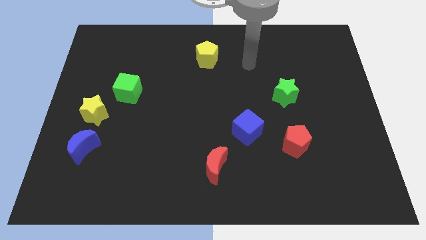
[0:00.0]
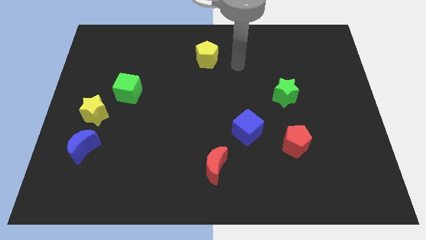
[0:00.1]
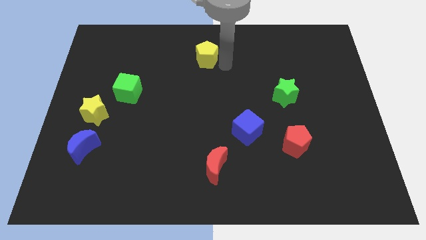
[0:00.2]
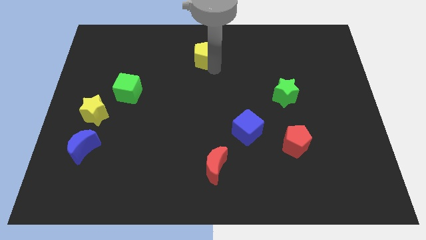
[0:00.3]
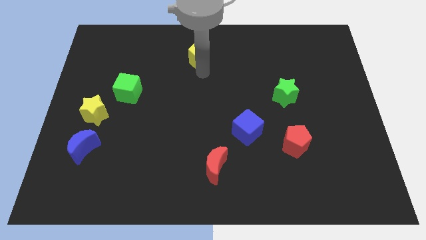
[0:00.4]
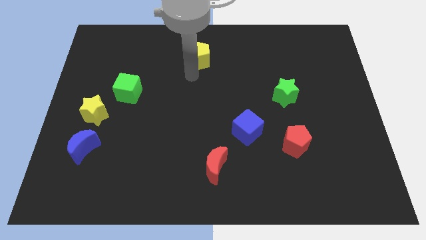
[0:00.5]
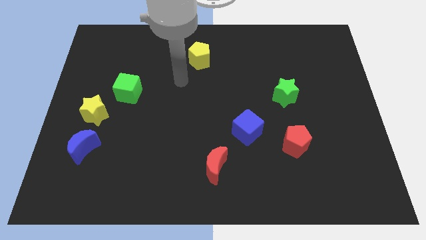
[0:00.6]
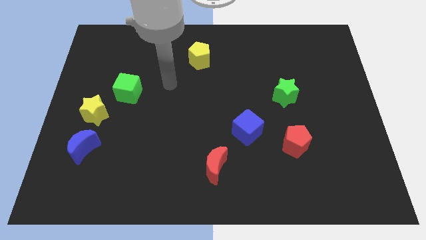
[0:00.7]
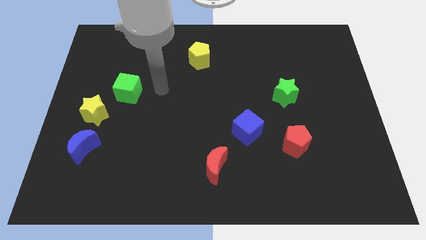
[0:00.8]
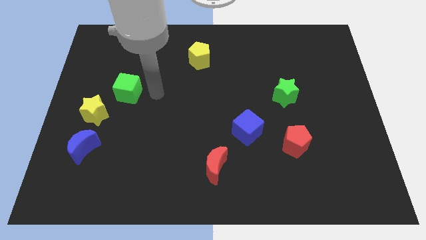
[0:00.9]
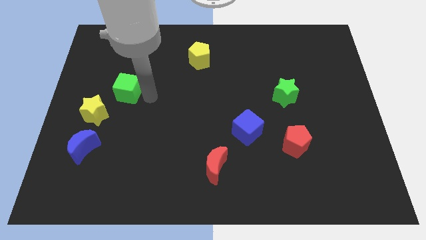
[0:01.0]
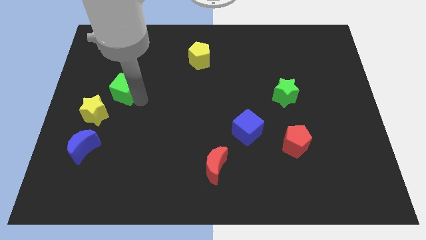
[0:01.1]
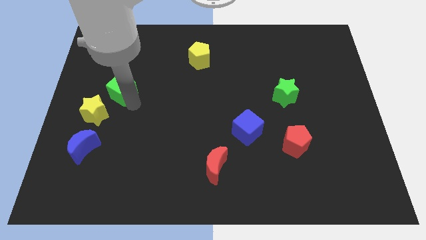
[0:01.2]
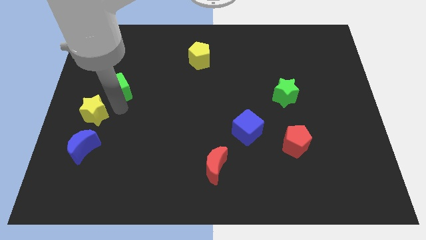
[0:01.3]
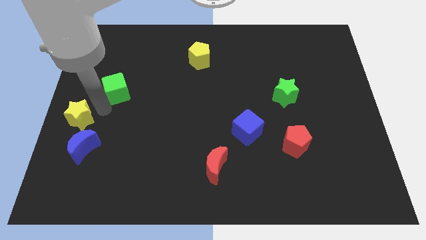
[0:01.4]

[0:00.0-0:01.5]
pull the green cube apart from the yellow star

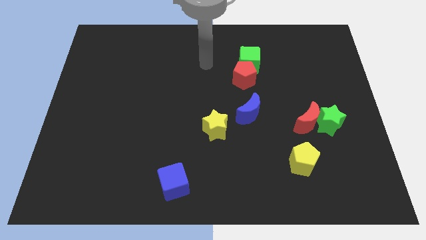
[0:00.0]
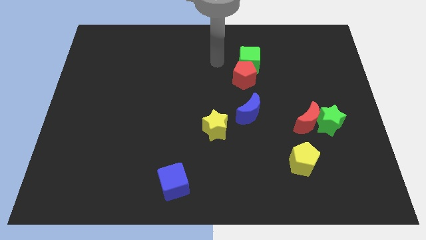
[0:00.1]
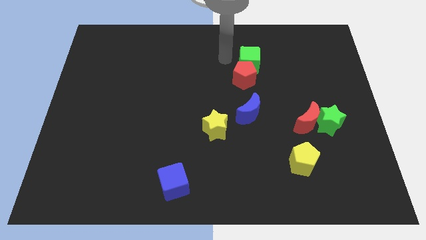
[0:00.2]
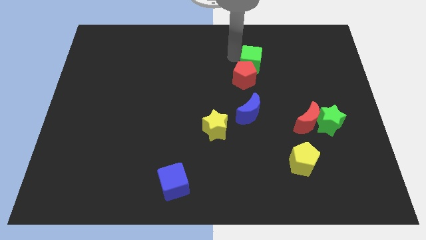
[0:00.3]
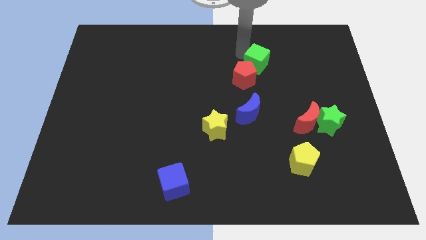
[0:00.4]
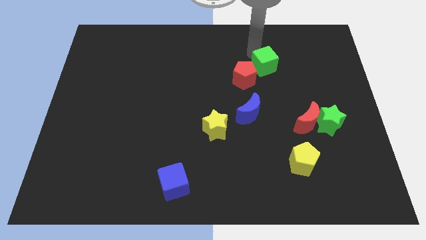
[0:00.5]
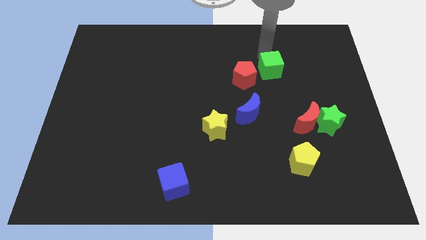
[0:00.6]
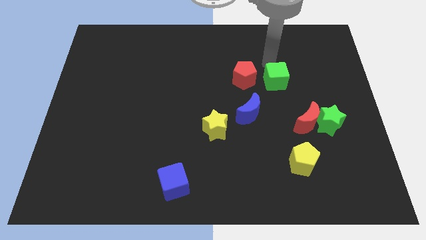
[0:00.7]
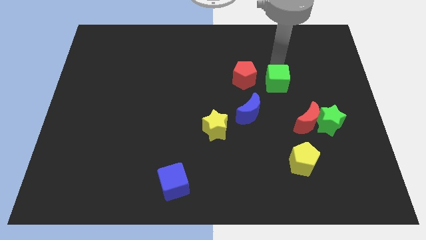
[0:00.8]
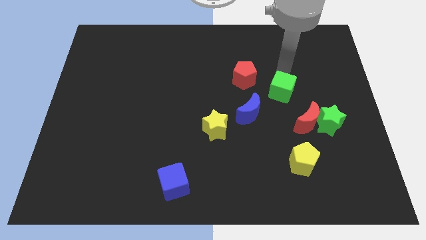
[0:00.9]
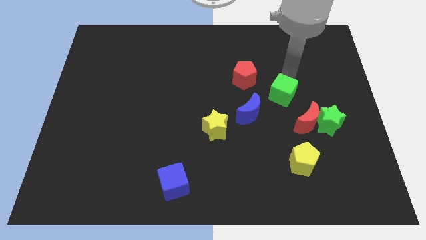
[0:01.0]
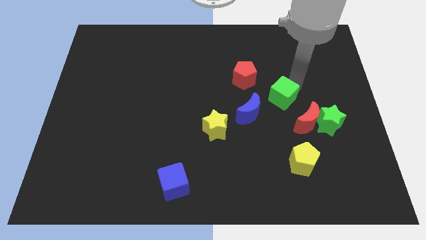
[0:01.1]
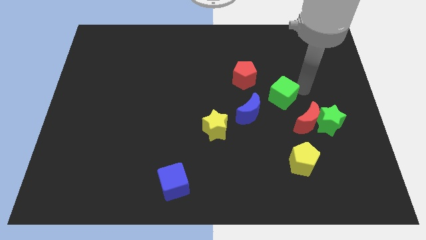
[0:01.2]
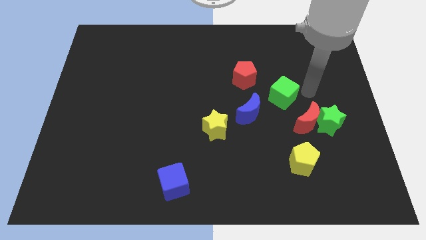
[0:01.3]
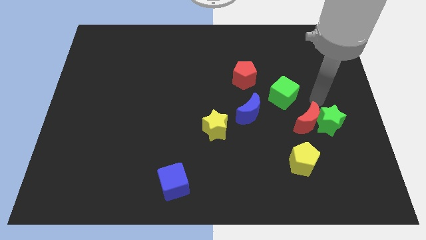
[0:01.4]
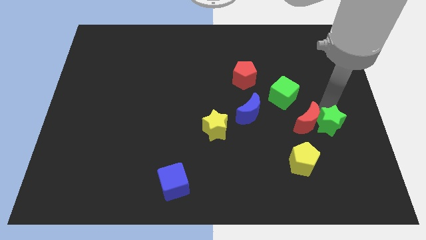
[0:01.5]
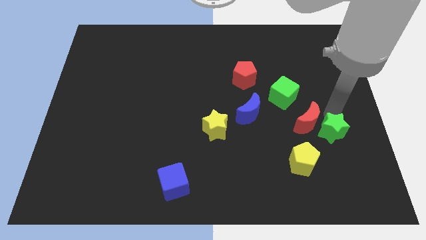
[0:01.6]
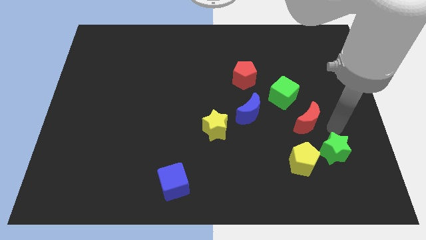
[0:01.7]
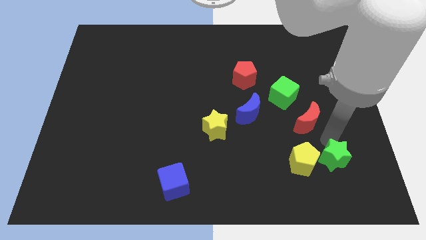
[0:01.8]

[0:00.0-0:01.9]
separate the red moon from the green star

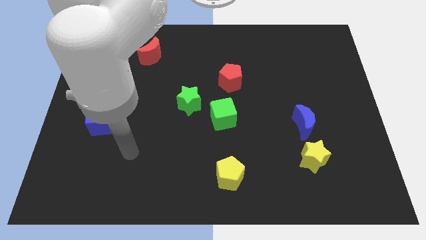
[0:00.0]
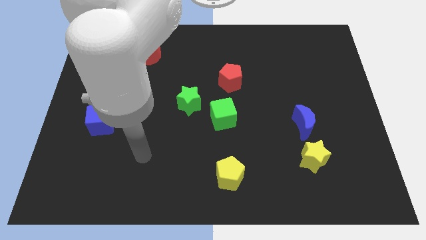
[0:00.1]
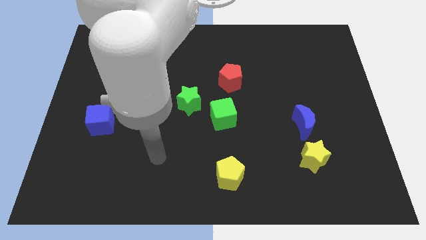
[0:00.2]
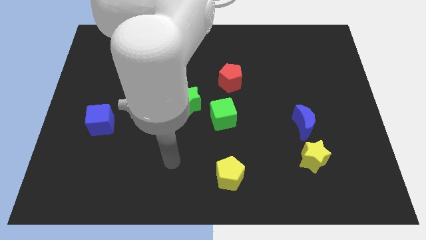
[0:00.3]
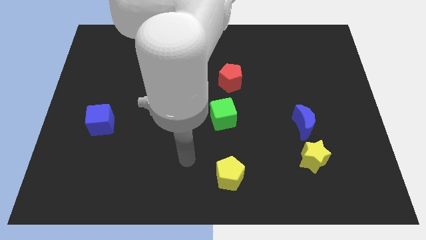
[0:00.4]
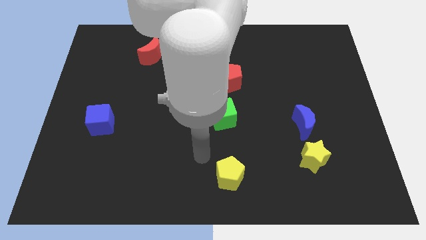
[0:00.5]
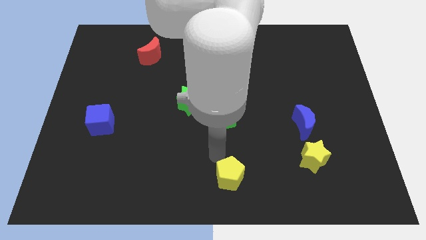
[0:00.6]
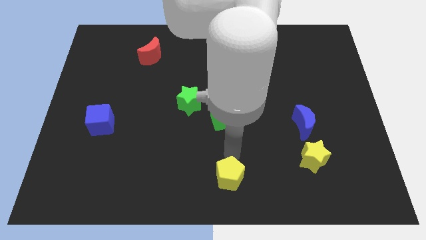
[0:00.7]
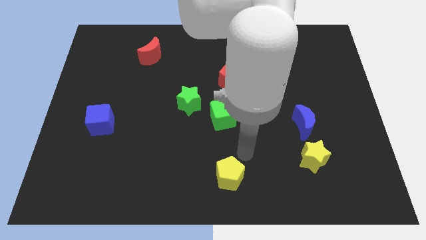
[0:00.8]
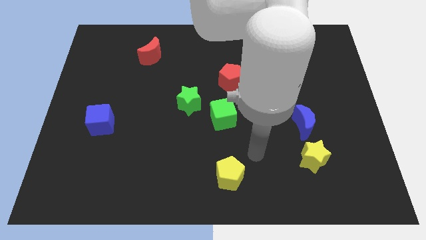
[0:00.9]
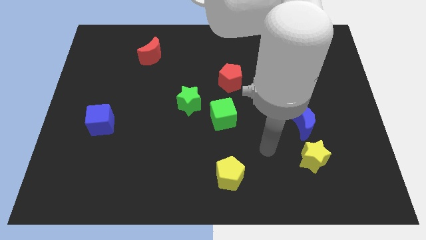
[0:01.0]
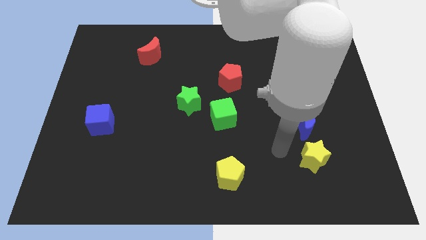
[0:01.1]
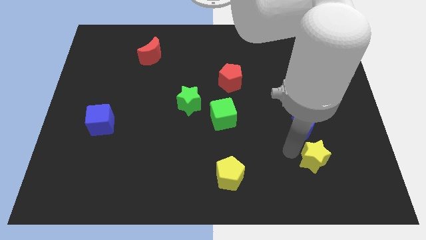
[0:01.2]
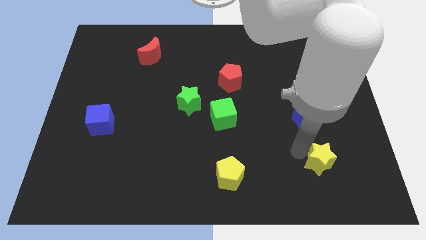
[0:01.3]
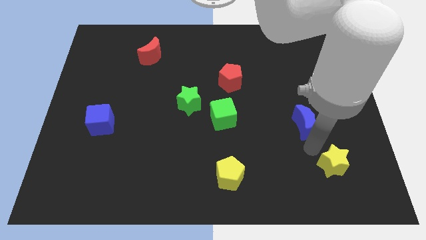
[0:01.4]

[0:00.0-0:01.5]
move the blue moon away from the yellow star

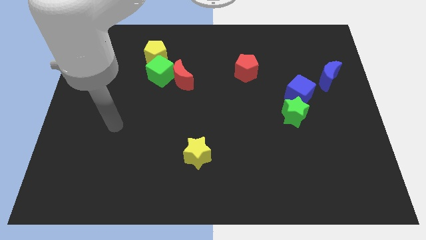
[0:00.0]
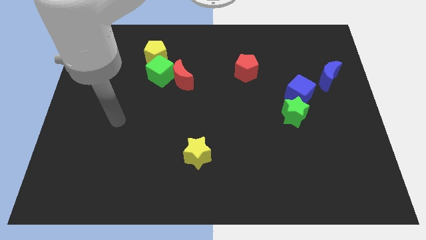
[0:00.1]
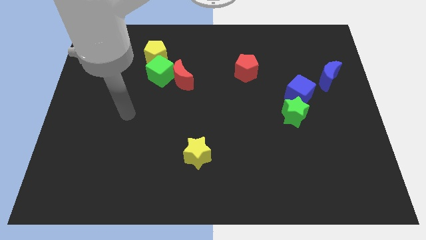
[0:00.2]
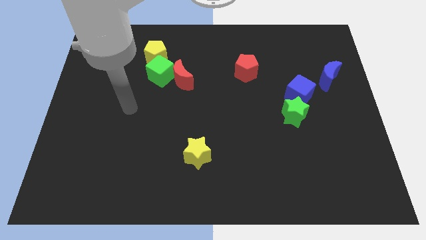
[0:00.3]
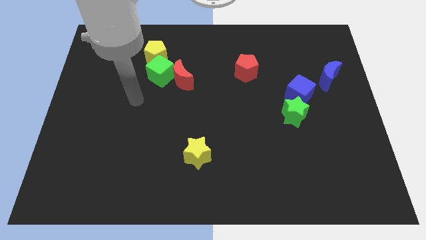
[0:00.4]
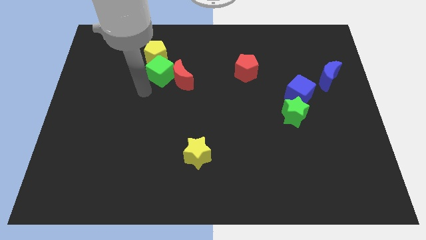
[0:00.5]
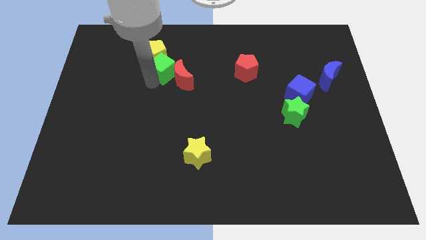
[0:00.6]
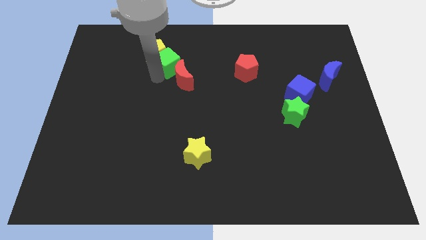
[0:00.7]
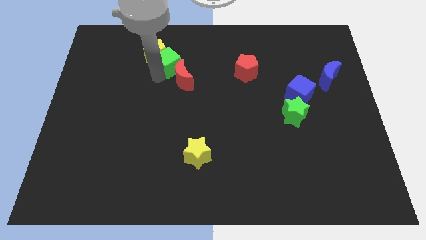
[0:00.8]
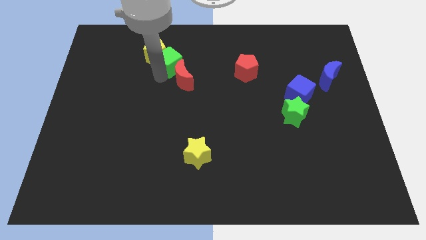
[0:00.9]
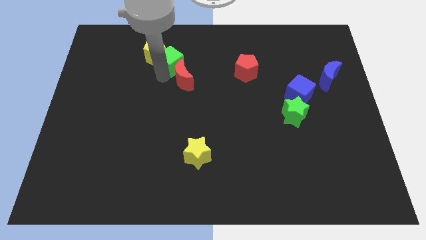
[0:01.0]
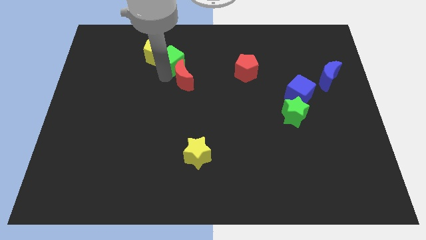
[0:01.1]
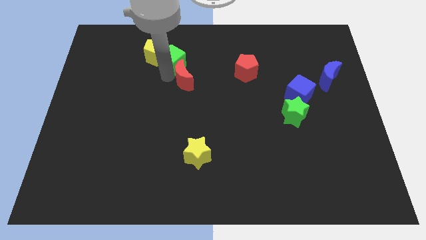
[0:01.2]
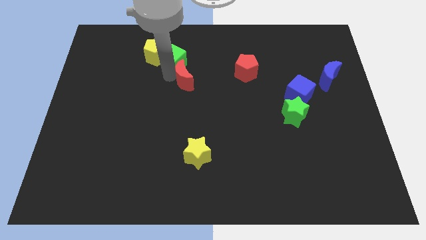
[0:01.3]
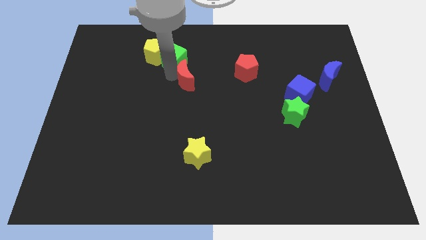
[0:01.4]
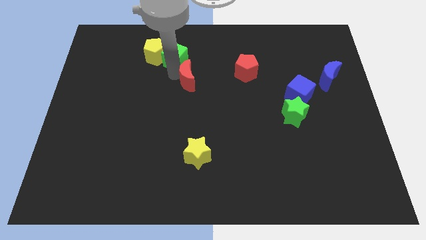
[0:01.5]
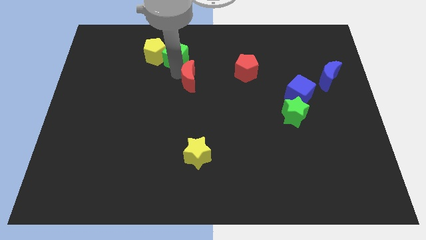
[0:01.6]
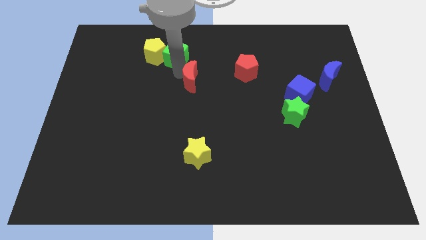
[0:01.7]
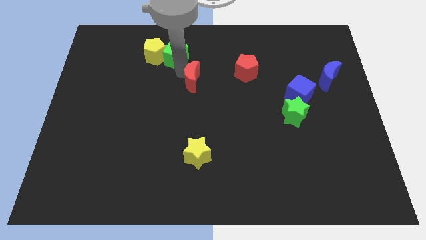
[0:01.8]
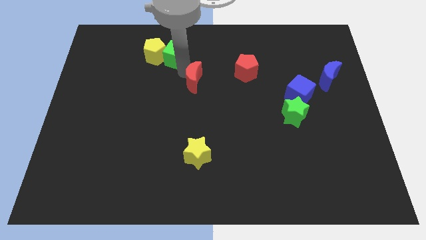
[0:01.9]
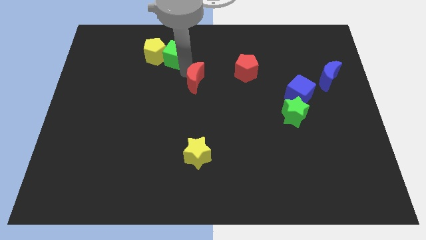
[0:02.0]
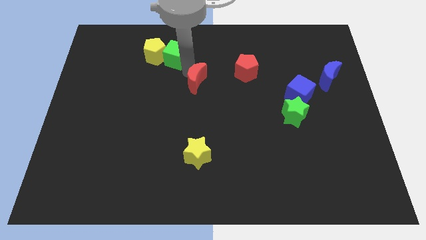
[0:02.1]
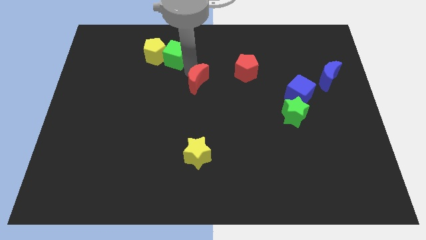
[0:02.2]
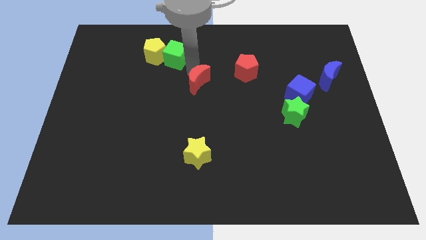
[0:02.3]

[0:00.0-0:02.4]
move the red moon away from the green cube

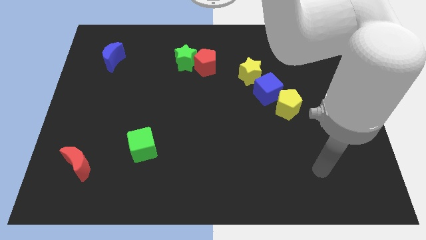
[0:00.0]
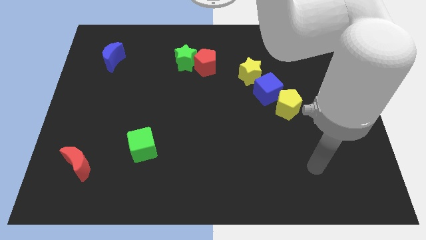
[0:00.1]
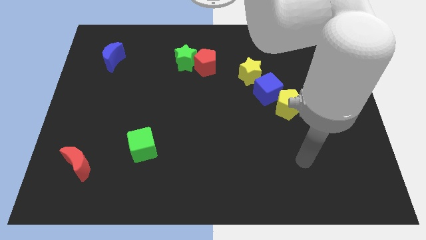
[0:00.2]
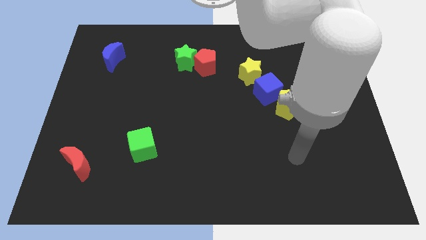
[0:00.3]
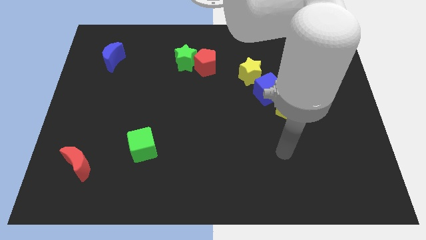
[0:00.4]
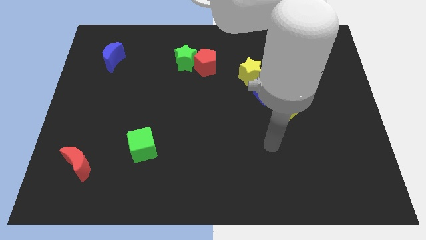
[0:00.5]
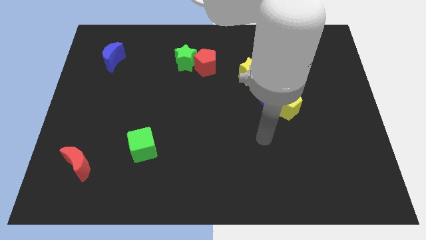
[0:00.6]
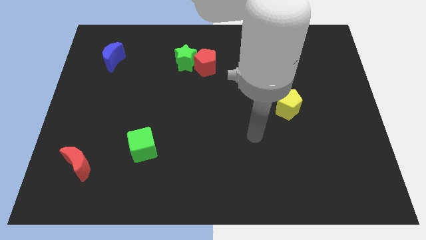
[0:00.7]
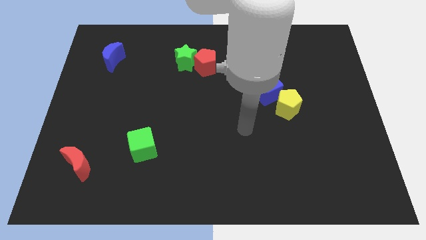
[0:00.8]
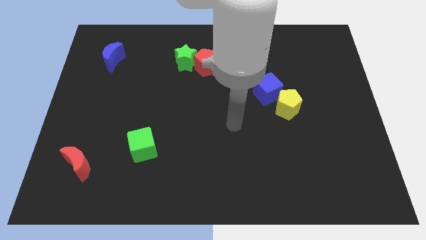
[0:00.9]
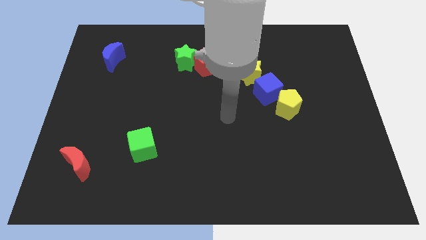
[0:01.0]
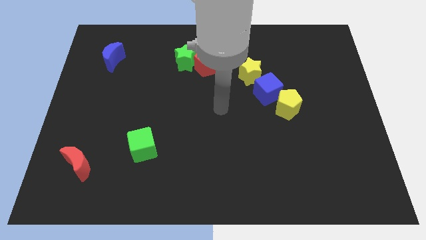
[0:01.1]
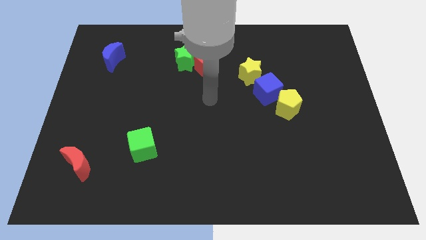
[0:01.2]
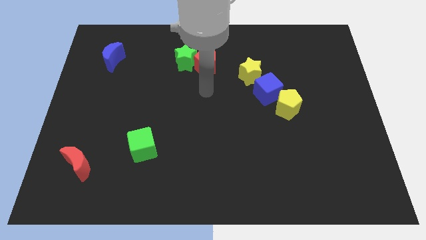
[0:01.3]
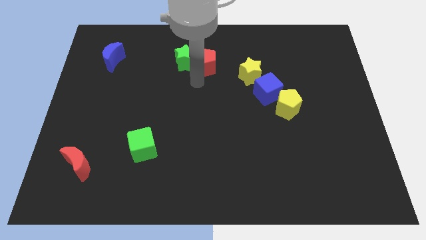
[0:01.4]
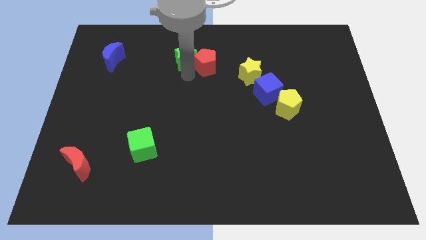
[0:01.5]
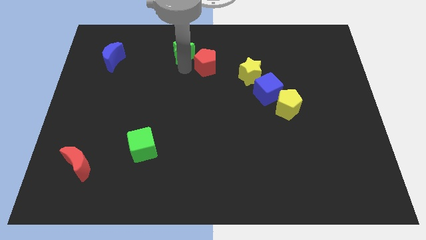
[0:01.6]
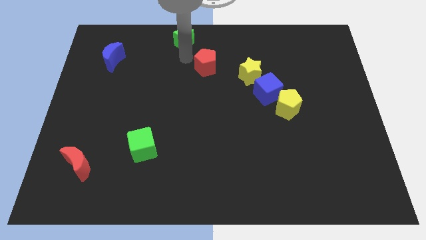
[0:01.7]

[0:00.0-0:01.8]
pull the red pentagon apart from the green star
